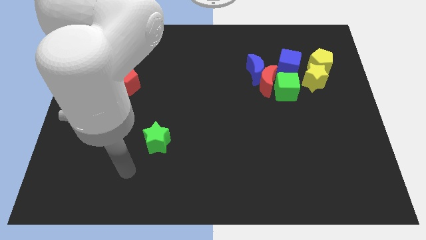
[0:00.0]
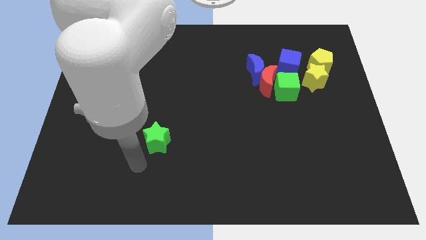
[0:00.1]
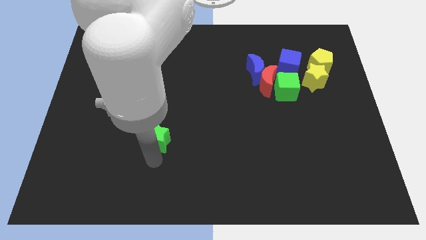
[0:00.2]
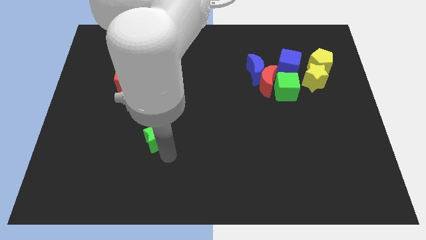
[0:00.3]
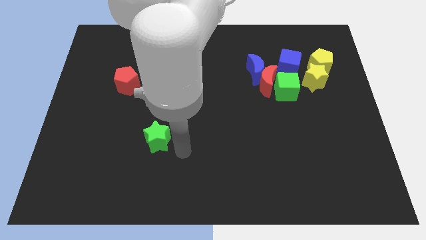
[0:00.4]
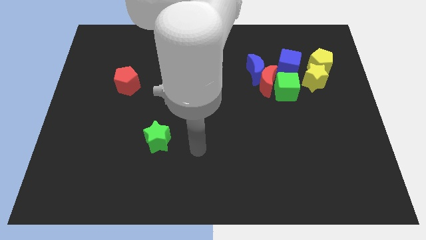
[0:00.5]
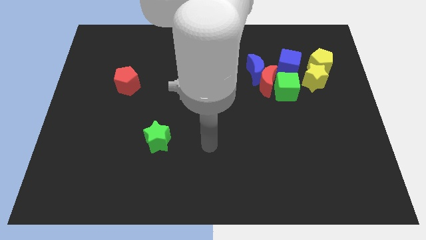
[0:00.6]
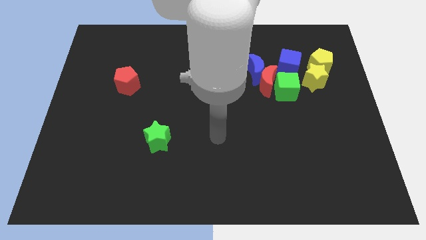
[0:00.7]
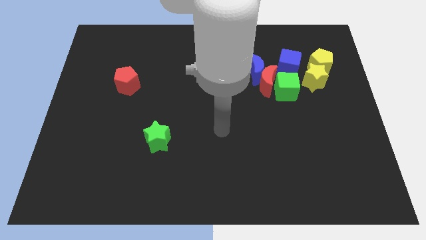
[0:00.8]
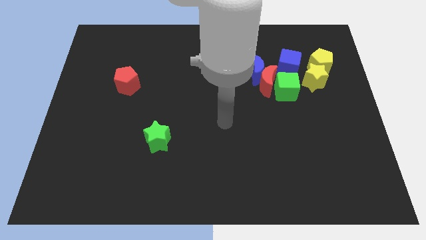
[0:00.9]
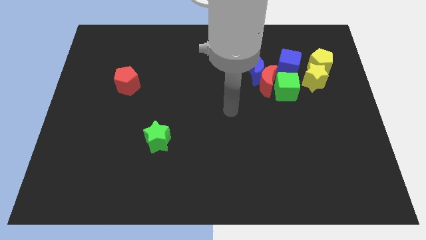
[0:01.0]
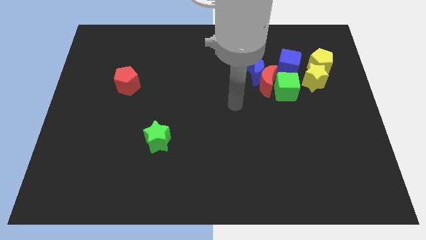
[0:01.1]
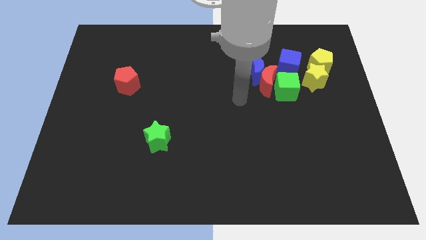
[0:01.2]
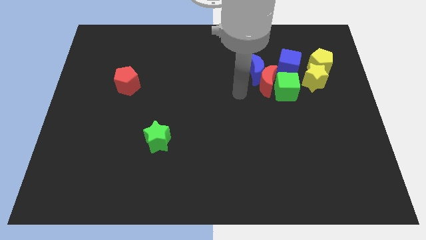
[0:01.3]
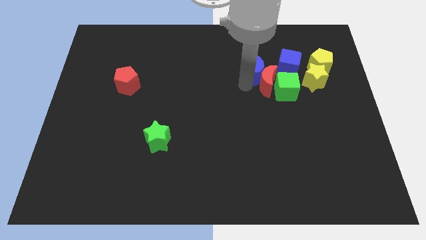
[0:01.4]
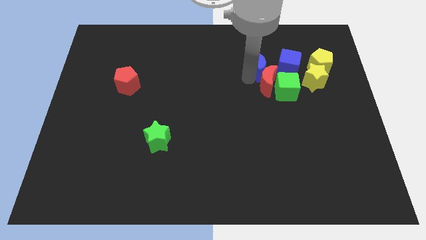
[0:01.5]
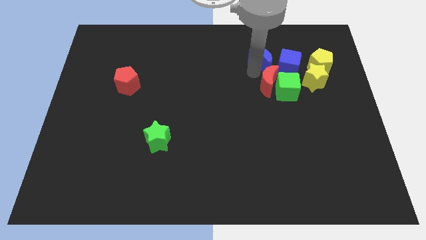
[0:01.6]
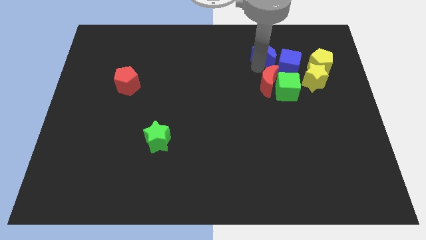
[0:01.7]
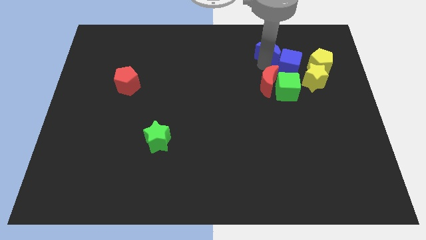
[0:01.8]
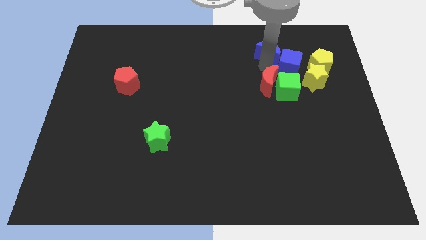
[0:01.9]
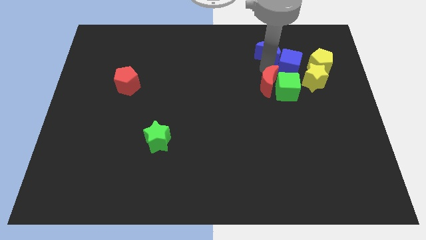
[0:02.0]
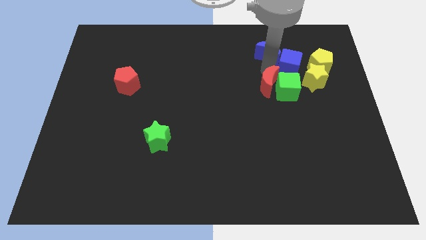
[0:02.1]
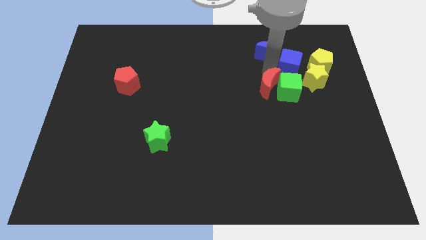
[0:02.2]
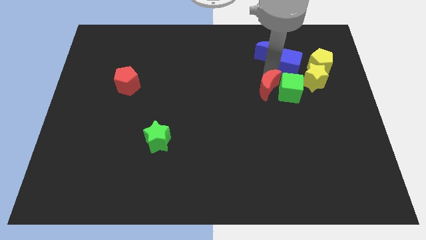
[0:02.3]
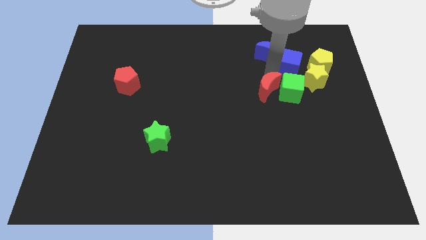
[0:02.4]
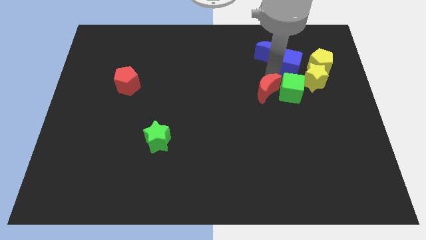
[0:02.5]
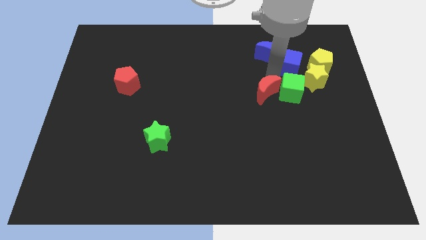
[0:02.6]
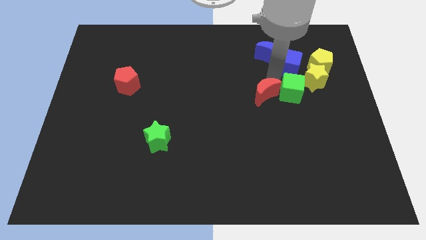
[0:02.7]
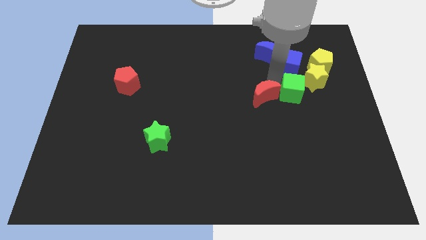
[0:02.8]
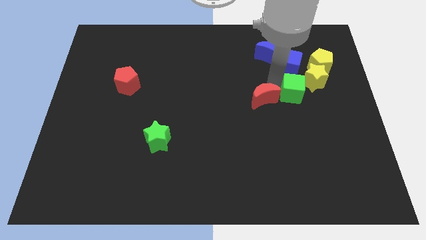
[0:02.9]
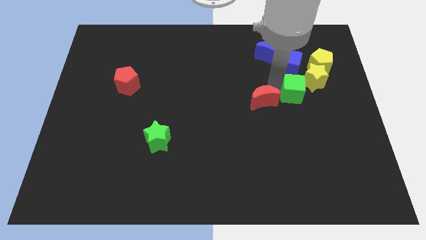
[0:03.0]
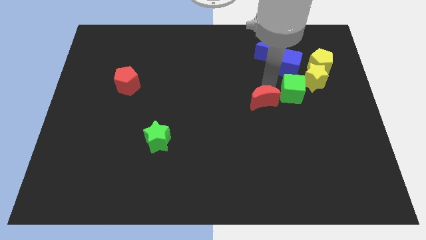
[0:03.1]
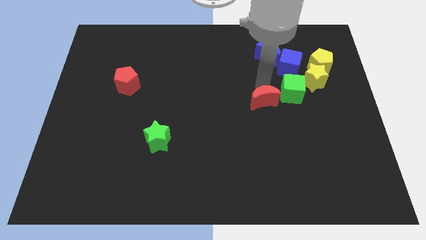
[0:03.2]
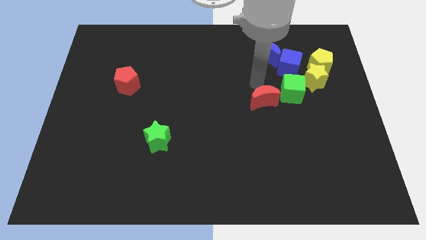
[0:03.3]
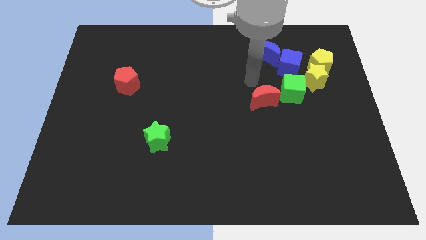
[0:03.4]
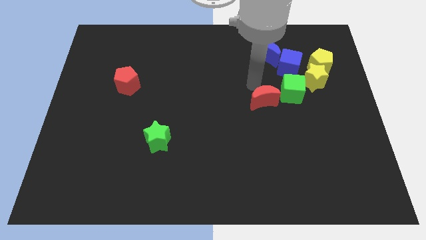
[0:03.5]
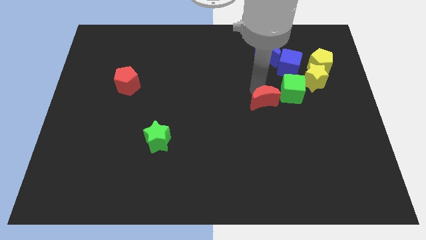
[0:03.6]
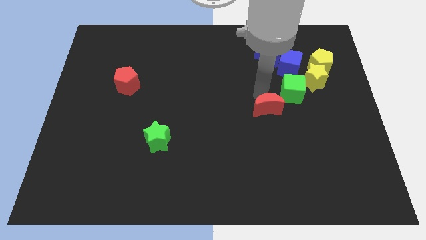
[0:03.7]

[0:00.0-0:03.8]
move the red moon somewhat down

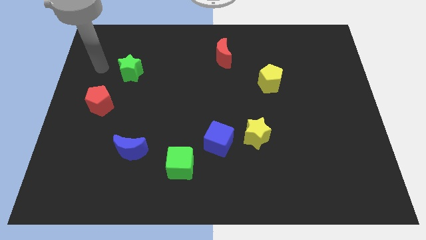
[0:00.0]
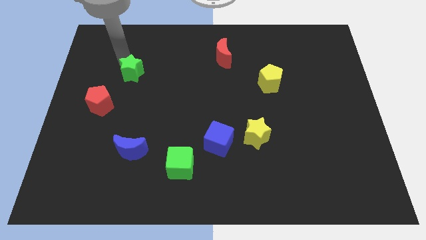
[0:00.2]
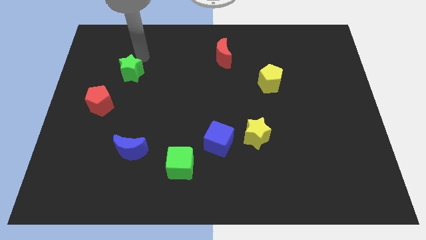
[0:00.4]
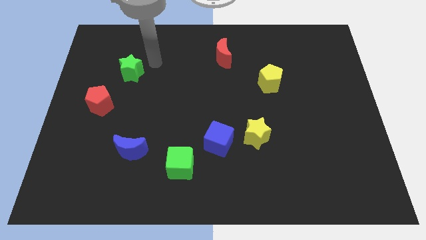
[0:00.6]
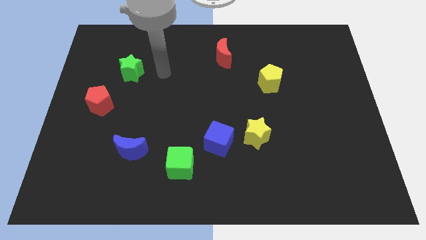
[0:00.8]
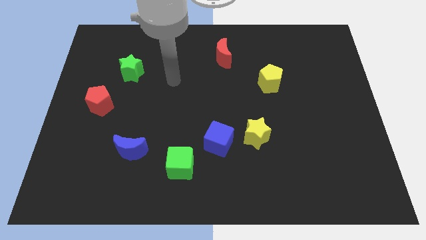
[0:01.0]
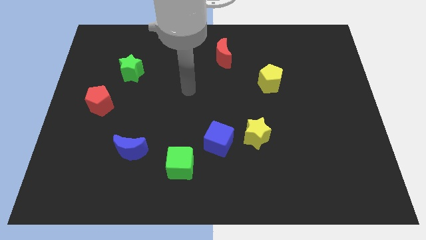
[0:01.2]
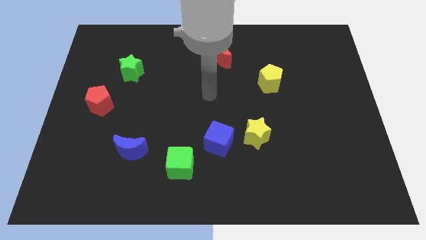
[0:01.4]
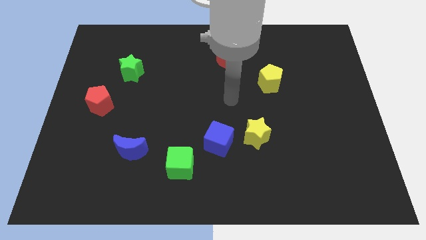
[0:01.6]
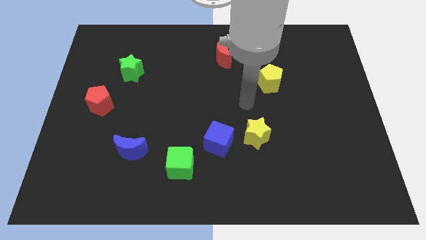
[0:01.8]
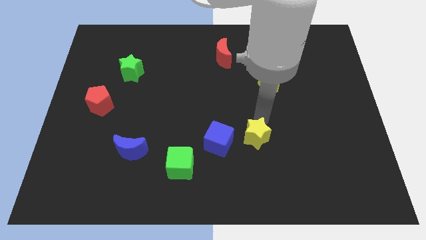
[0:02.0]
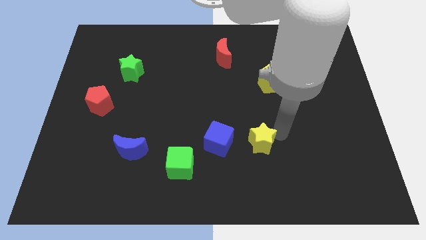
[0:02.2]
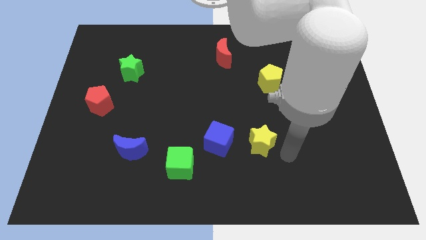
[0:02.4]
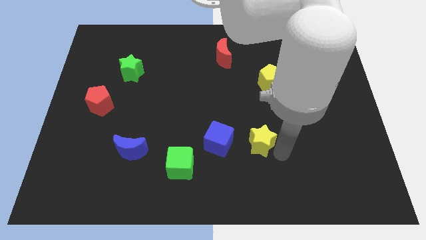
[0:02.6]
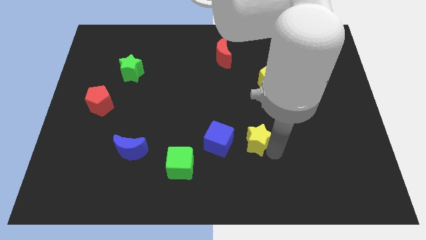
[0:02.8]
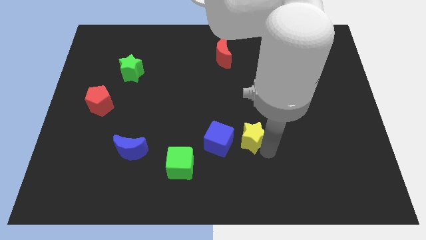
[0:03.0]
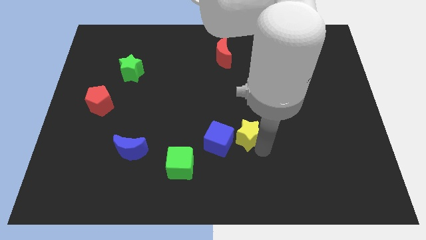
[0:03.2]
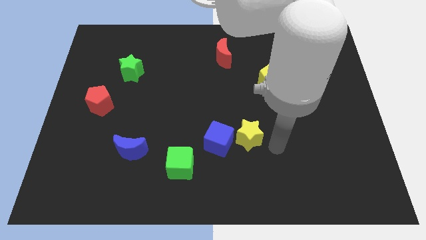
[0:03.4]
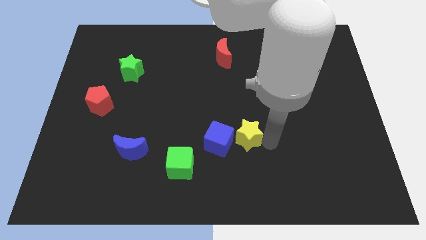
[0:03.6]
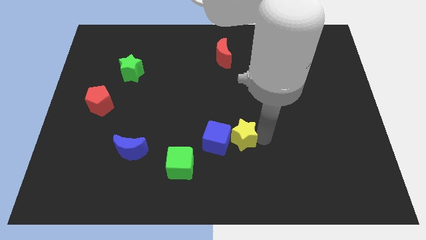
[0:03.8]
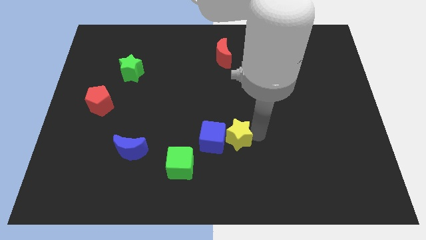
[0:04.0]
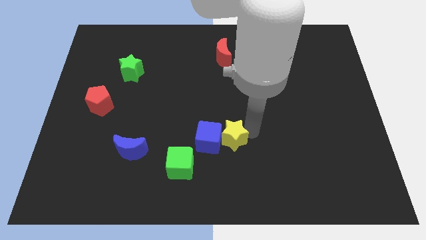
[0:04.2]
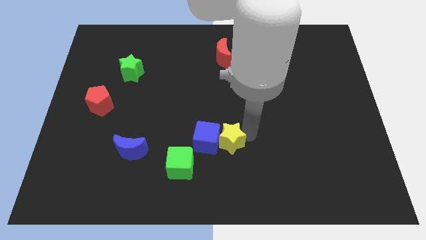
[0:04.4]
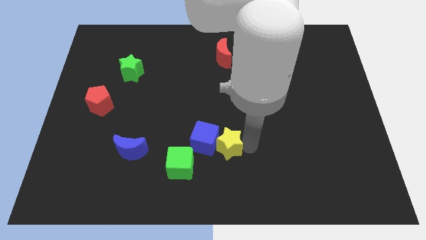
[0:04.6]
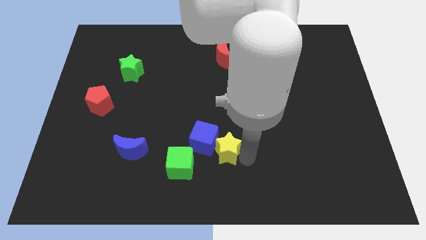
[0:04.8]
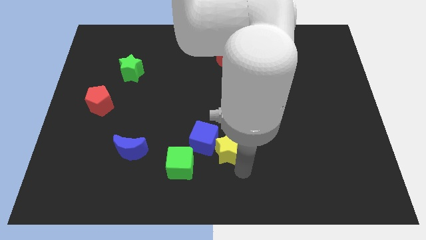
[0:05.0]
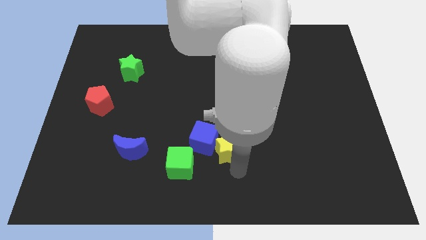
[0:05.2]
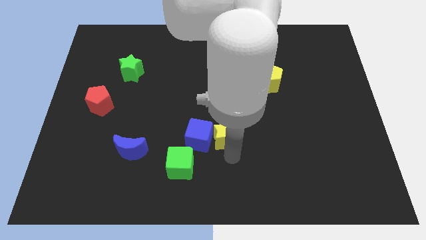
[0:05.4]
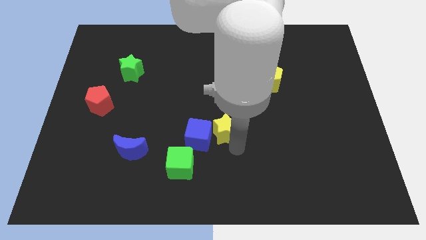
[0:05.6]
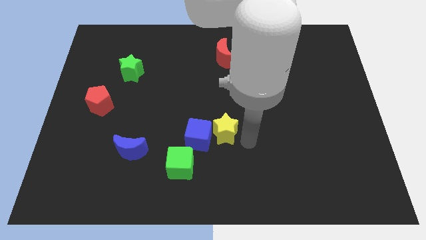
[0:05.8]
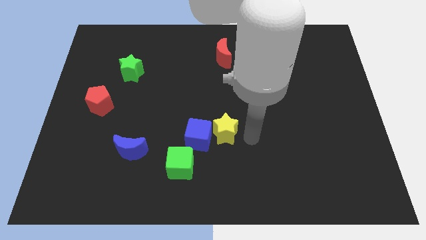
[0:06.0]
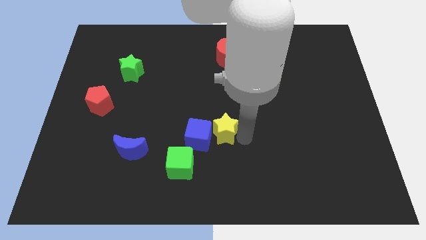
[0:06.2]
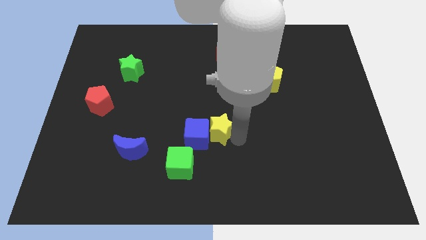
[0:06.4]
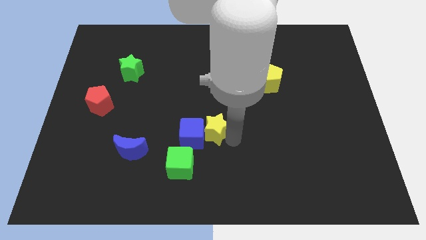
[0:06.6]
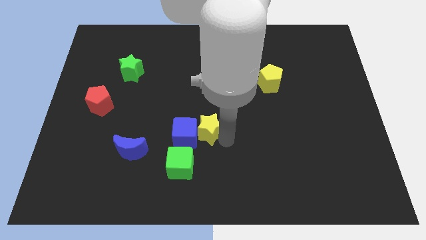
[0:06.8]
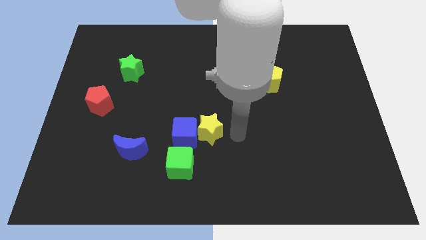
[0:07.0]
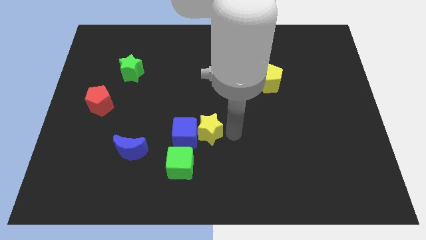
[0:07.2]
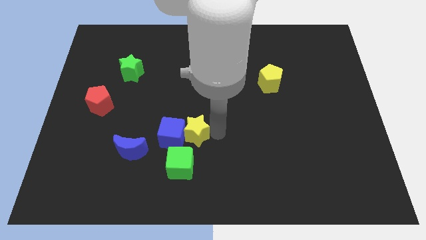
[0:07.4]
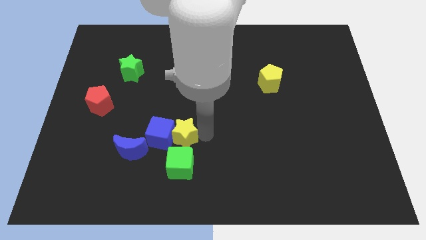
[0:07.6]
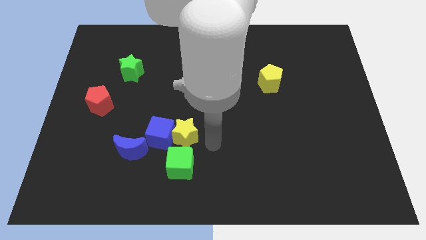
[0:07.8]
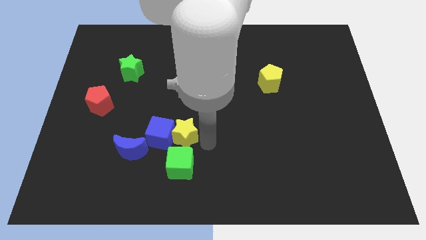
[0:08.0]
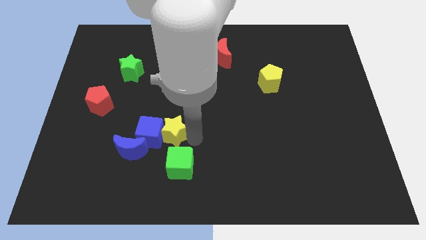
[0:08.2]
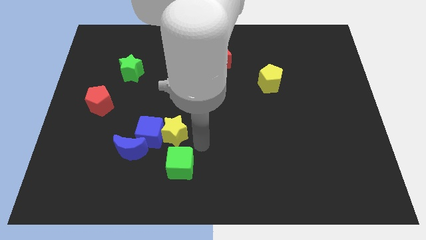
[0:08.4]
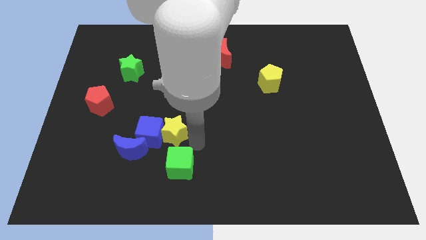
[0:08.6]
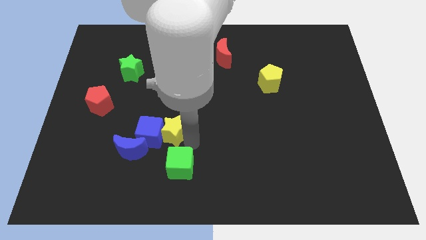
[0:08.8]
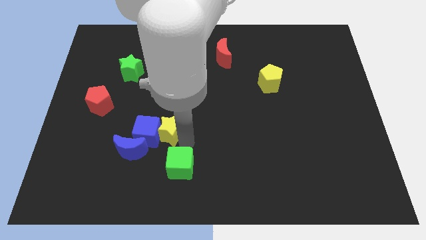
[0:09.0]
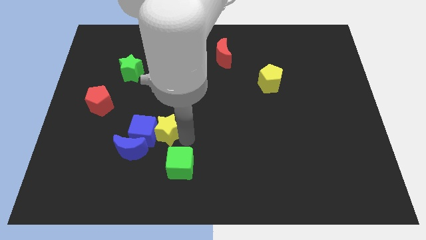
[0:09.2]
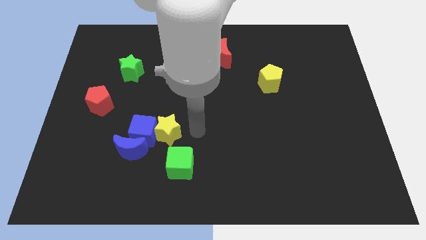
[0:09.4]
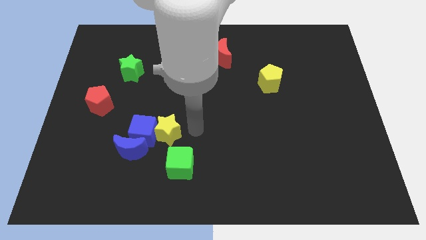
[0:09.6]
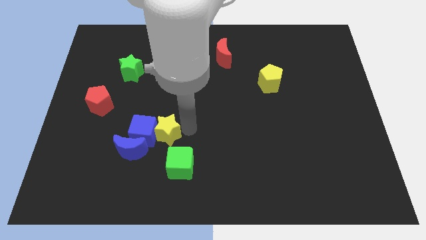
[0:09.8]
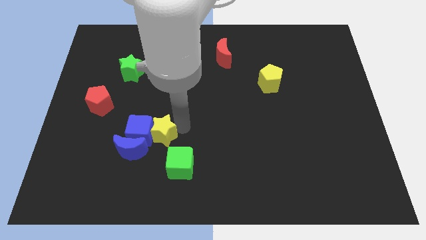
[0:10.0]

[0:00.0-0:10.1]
push the yellow star to the left
